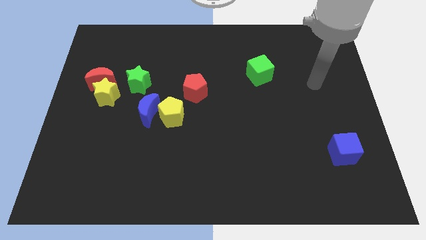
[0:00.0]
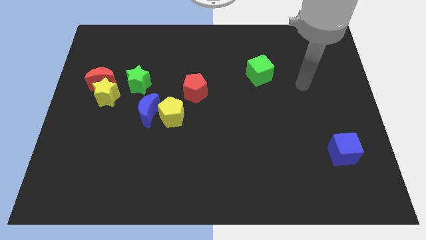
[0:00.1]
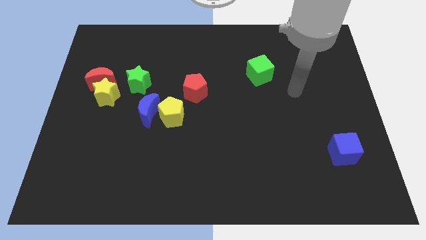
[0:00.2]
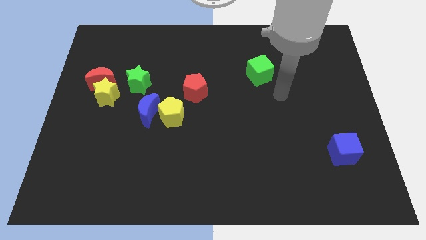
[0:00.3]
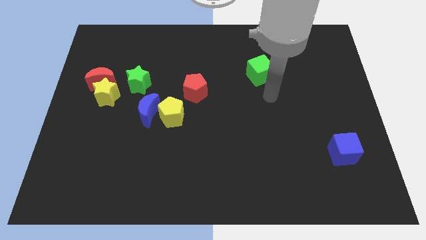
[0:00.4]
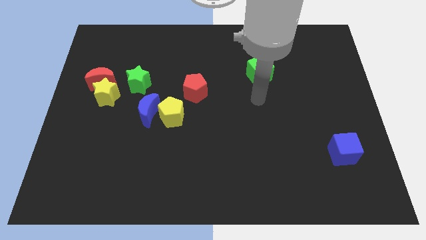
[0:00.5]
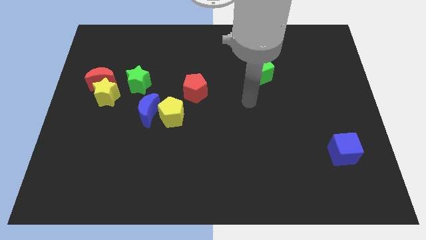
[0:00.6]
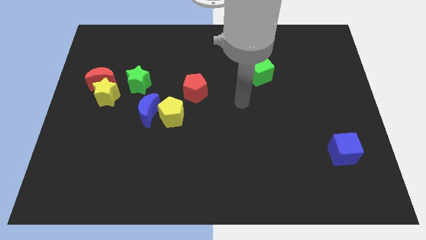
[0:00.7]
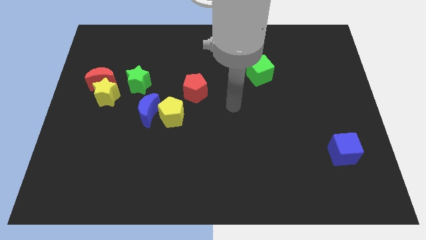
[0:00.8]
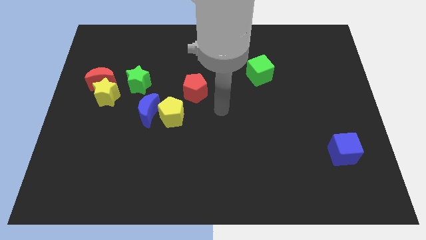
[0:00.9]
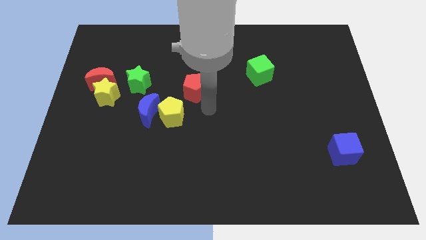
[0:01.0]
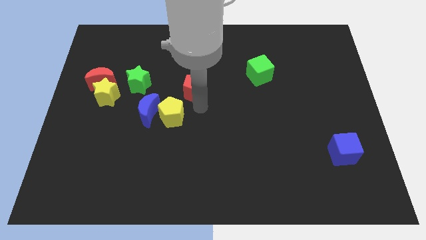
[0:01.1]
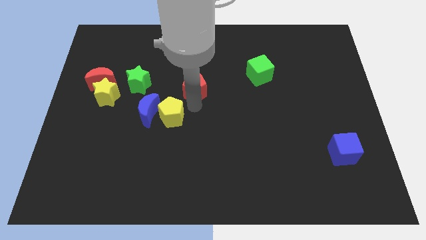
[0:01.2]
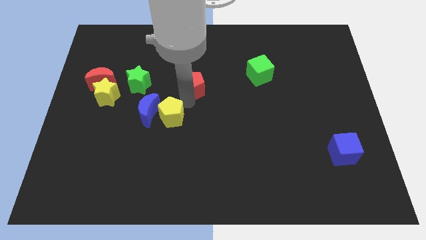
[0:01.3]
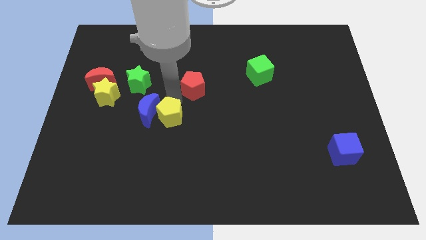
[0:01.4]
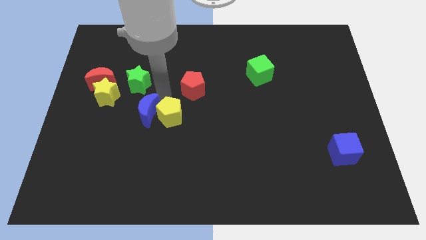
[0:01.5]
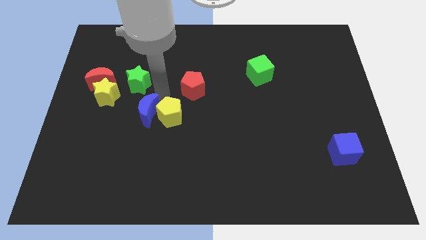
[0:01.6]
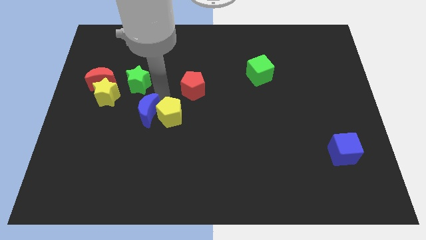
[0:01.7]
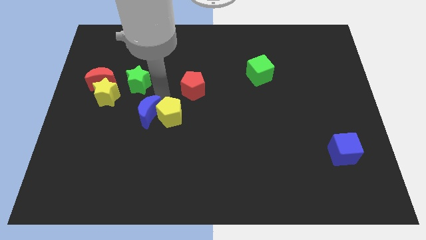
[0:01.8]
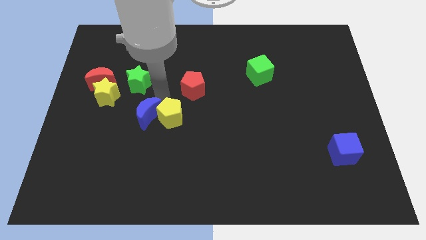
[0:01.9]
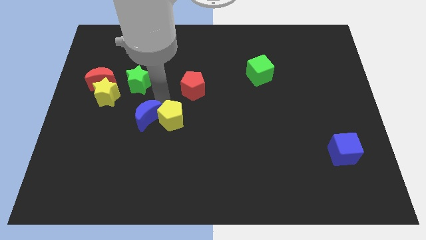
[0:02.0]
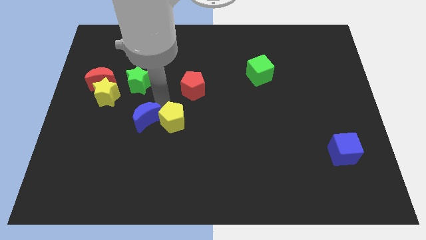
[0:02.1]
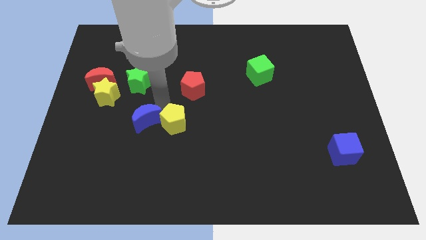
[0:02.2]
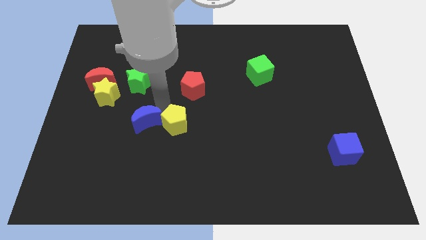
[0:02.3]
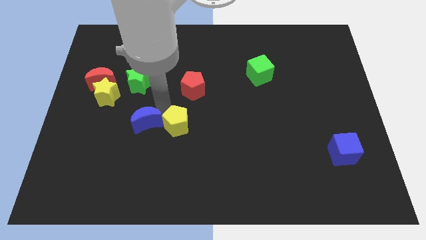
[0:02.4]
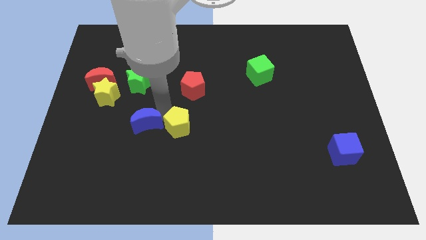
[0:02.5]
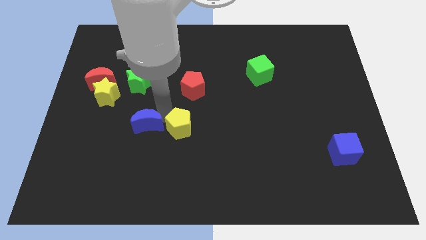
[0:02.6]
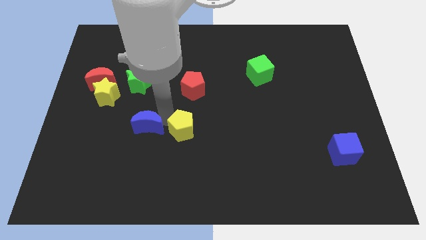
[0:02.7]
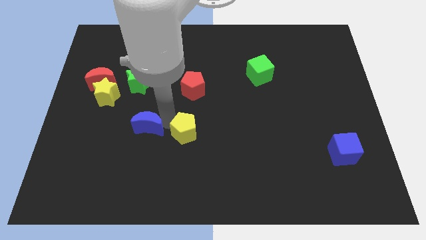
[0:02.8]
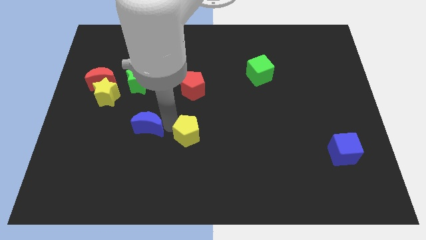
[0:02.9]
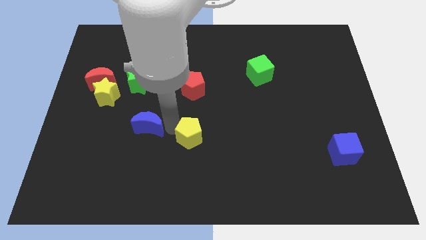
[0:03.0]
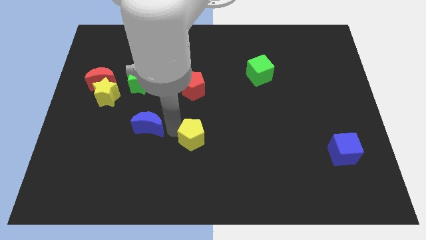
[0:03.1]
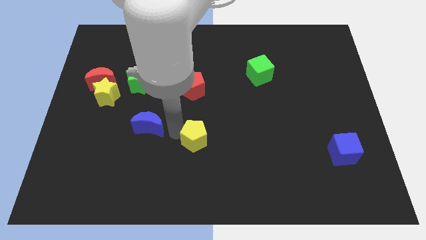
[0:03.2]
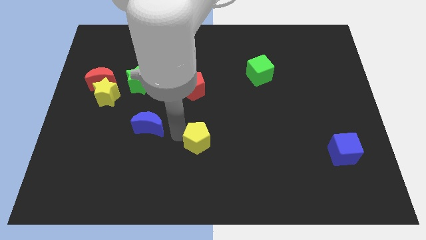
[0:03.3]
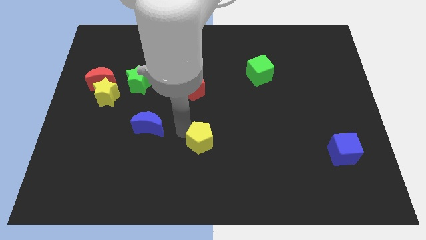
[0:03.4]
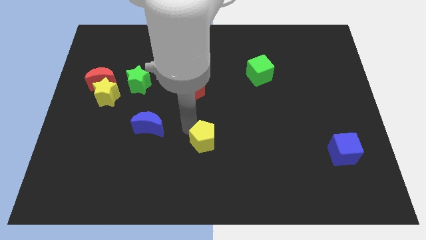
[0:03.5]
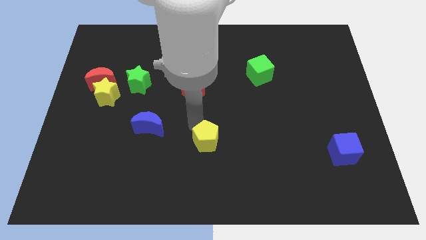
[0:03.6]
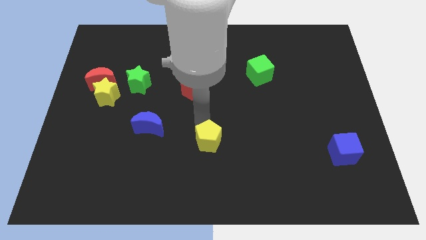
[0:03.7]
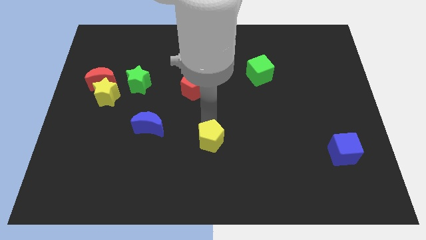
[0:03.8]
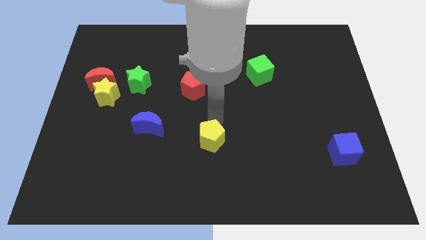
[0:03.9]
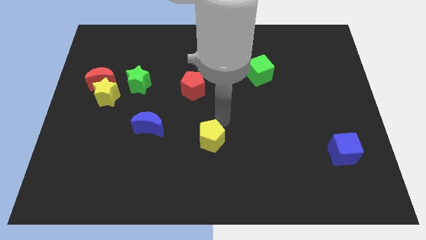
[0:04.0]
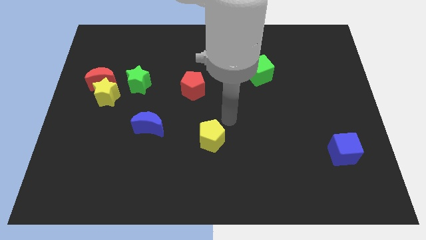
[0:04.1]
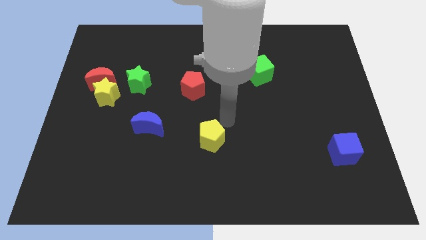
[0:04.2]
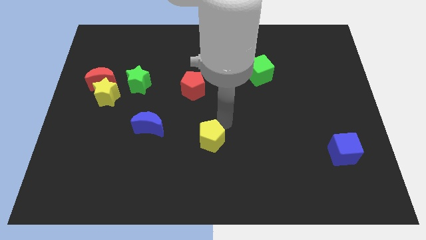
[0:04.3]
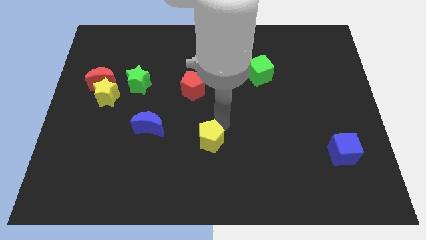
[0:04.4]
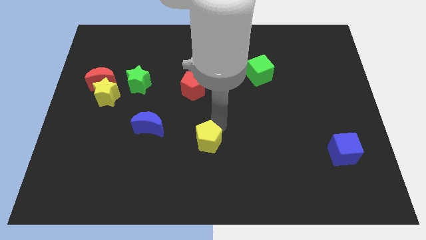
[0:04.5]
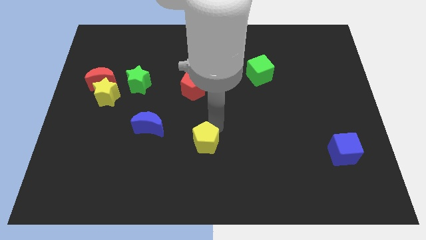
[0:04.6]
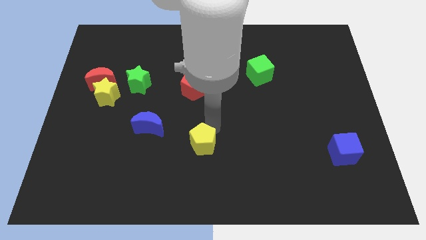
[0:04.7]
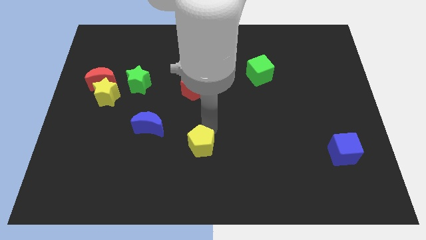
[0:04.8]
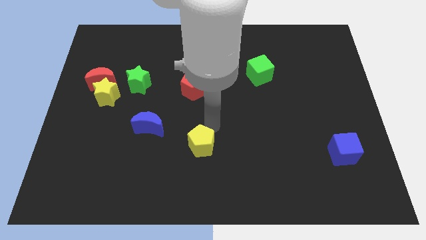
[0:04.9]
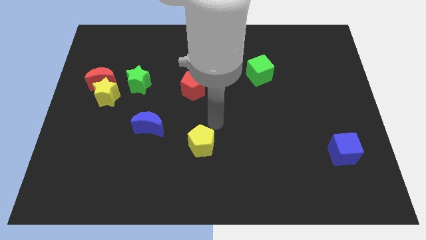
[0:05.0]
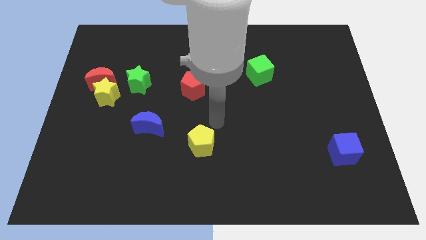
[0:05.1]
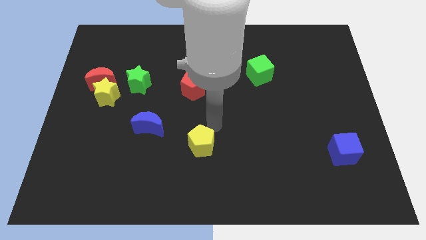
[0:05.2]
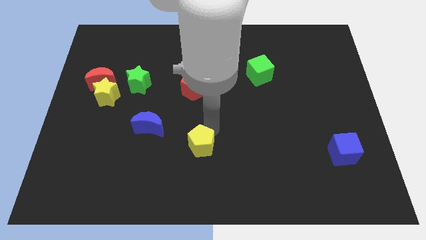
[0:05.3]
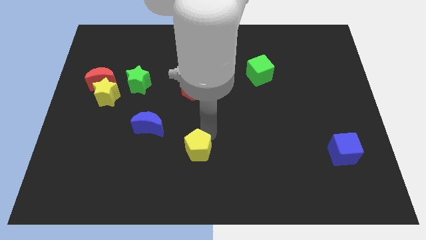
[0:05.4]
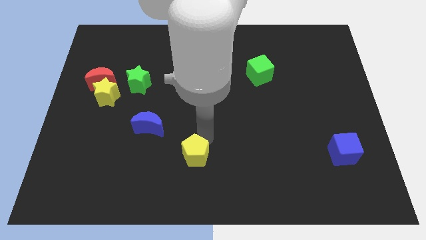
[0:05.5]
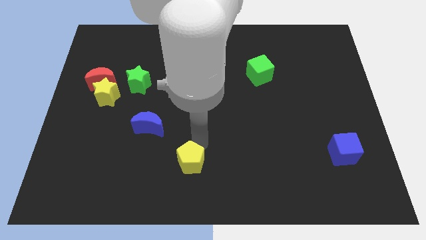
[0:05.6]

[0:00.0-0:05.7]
push the yellow pentagon to the bottom side

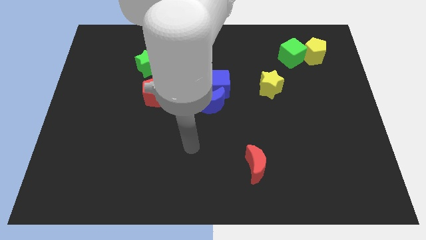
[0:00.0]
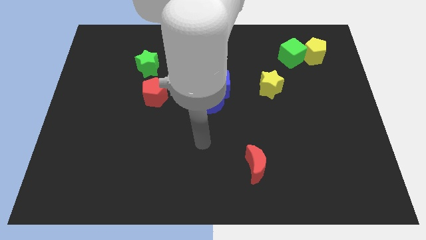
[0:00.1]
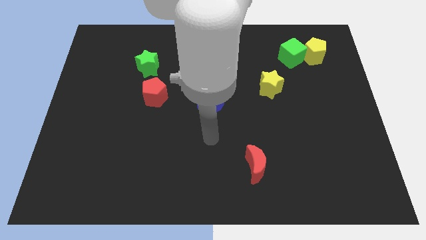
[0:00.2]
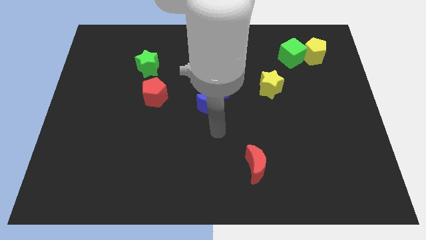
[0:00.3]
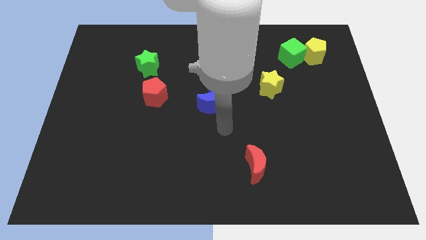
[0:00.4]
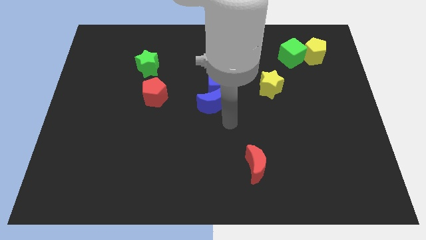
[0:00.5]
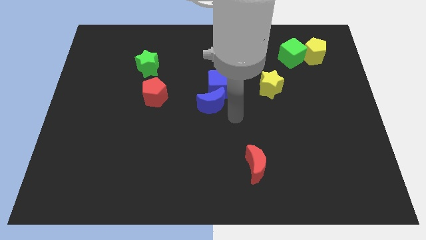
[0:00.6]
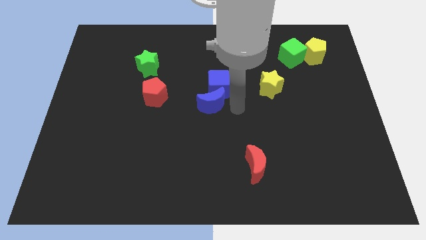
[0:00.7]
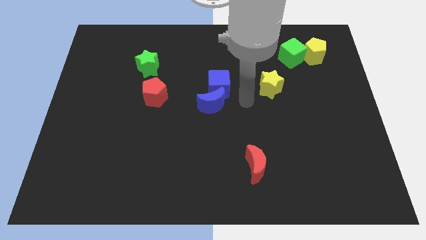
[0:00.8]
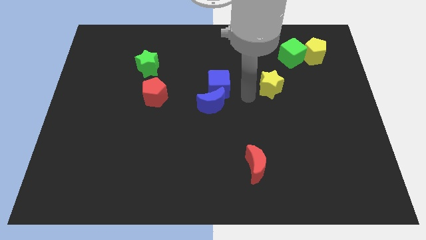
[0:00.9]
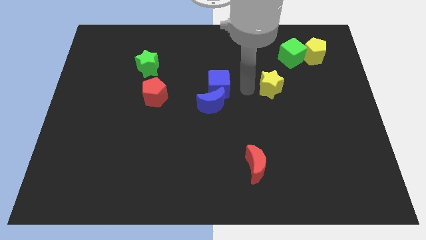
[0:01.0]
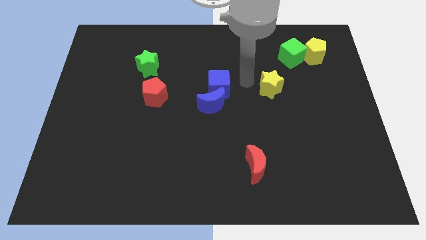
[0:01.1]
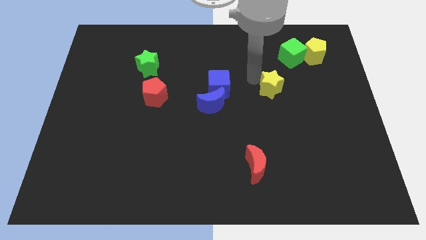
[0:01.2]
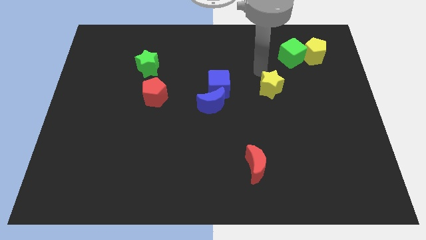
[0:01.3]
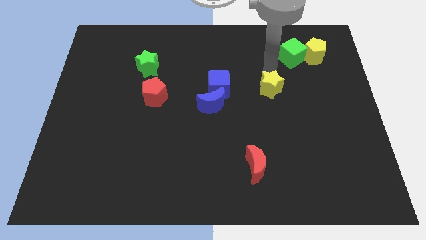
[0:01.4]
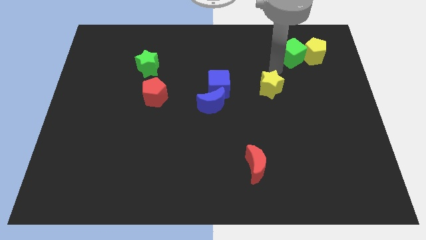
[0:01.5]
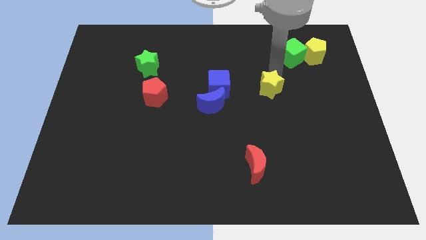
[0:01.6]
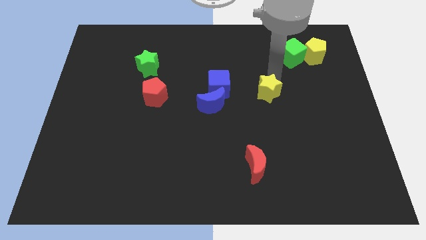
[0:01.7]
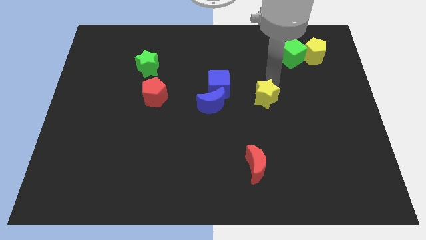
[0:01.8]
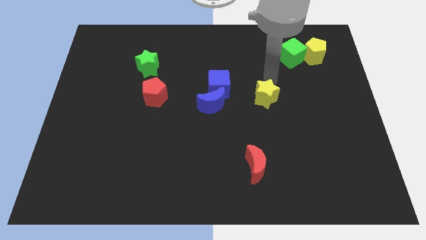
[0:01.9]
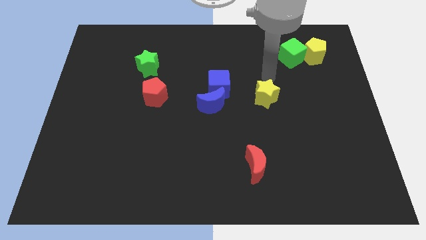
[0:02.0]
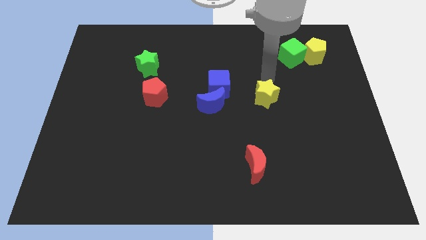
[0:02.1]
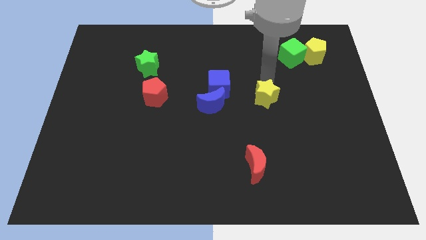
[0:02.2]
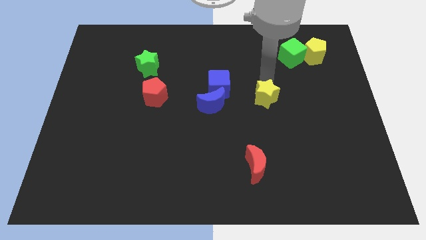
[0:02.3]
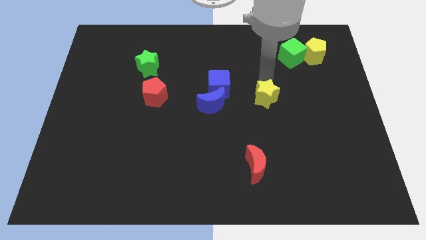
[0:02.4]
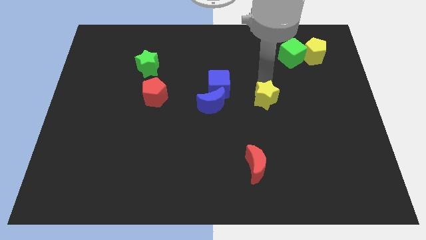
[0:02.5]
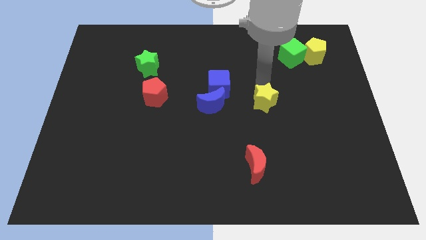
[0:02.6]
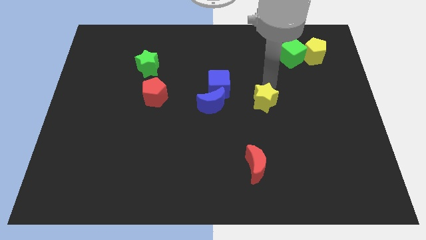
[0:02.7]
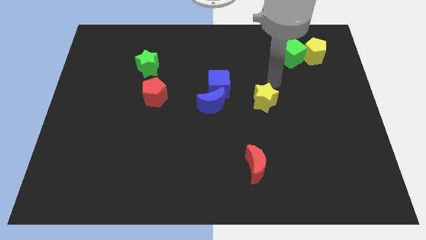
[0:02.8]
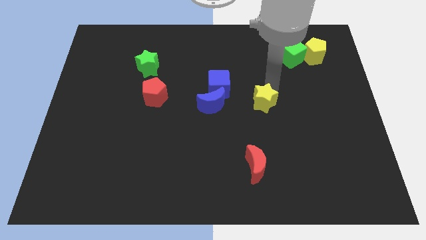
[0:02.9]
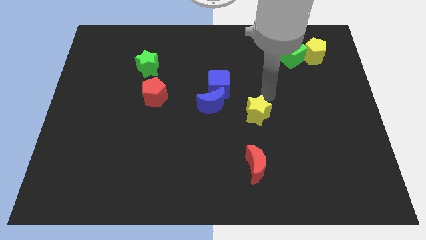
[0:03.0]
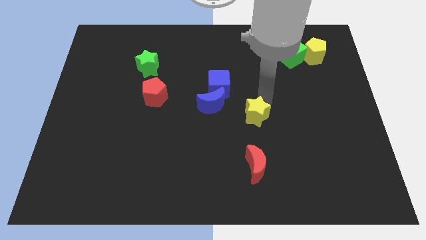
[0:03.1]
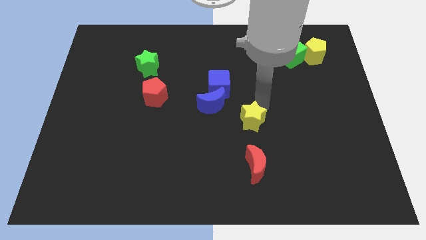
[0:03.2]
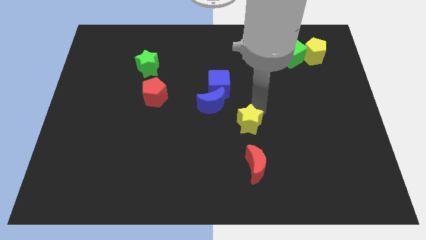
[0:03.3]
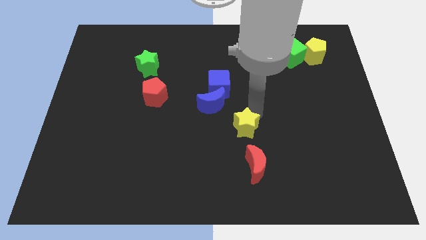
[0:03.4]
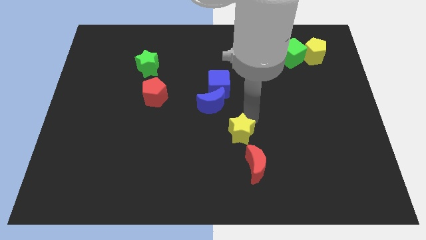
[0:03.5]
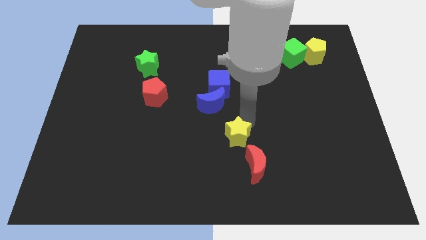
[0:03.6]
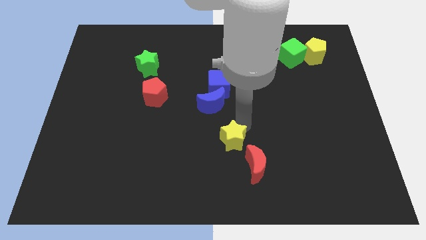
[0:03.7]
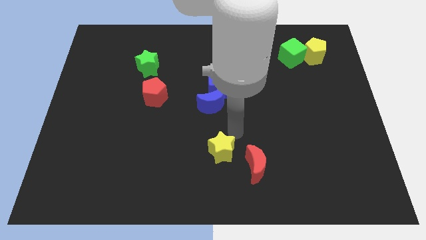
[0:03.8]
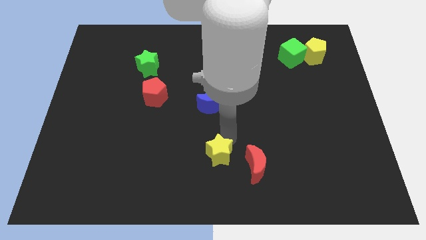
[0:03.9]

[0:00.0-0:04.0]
push the yellow star to the bottom side
